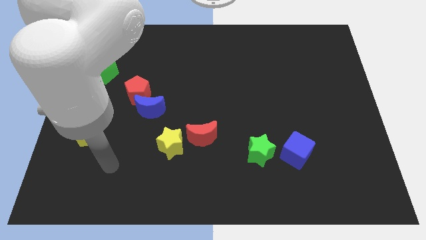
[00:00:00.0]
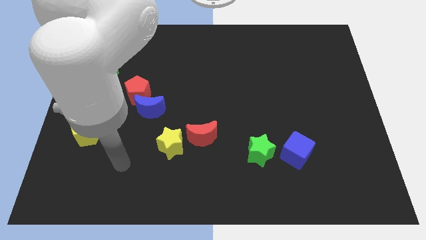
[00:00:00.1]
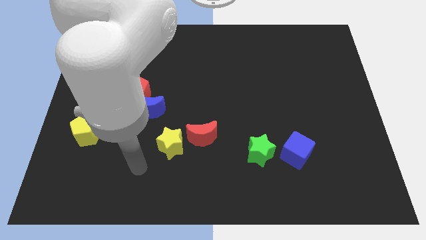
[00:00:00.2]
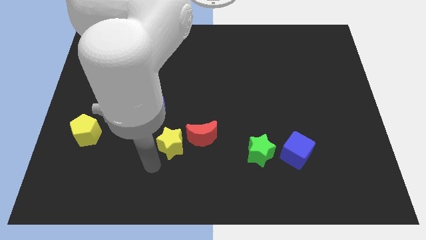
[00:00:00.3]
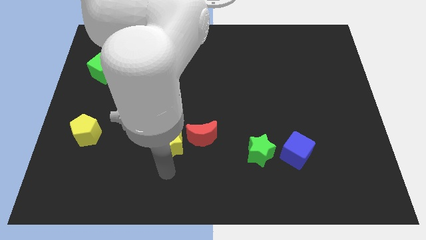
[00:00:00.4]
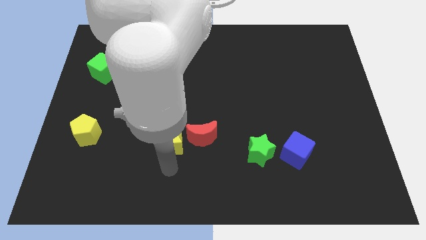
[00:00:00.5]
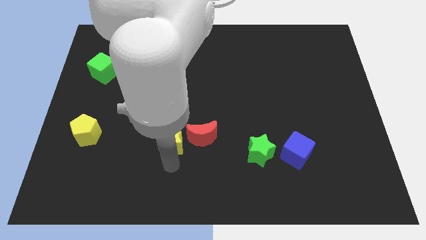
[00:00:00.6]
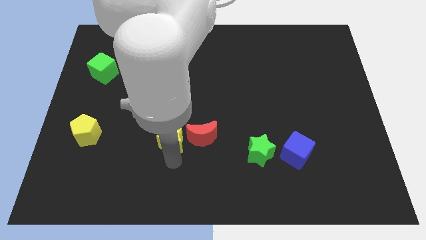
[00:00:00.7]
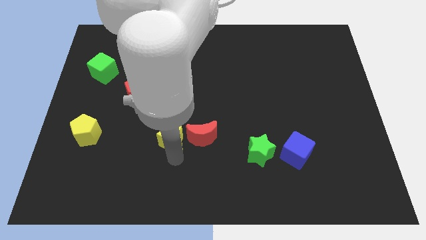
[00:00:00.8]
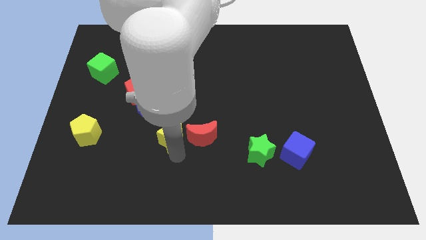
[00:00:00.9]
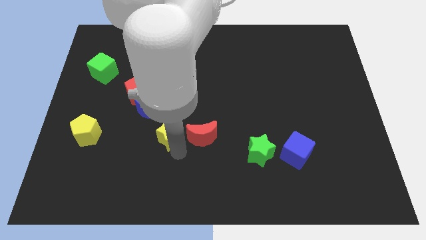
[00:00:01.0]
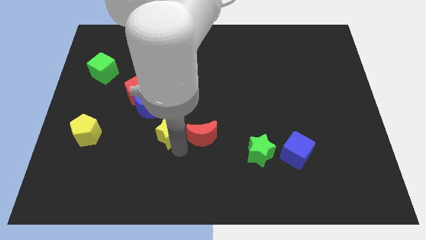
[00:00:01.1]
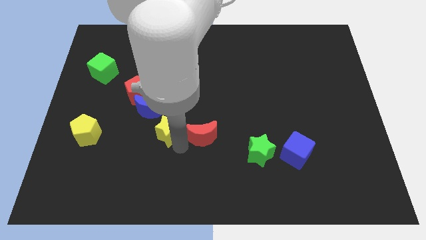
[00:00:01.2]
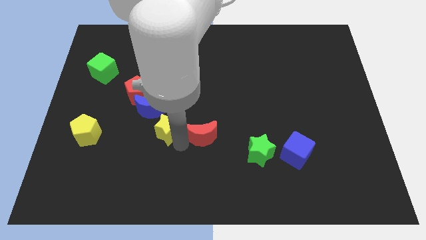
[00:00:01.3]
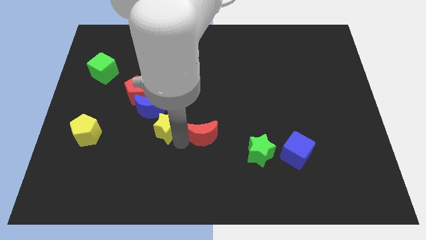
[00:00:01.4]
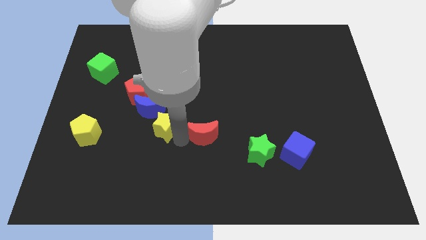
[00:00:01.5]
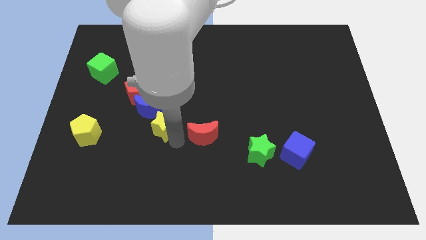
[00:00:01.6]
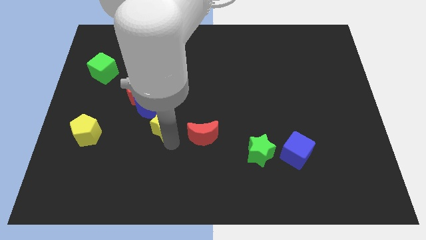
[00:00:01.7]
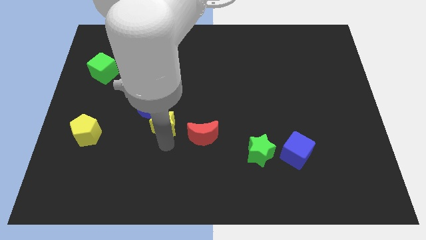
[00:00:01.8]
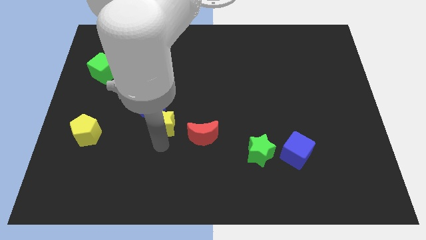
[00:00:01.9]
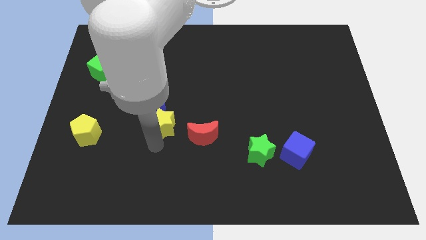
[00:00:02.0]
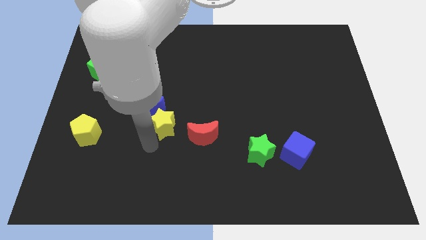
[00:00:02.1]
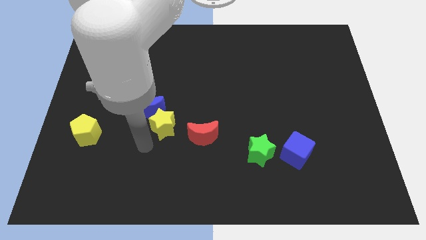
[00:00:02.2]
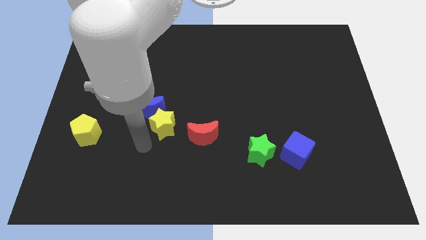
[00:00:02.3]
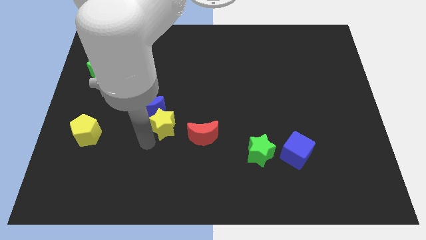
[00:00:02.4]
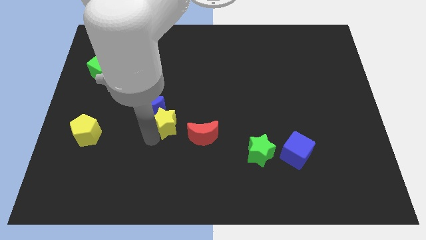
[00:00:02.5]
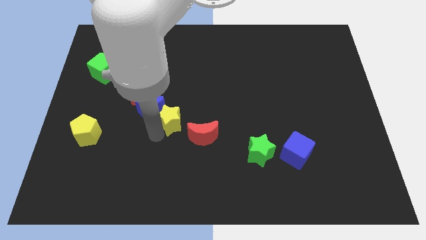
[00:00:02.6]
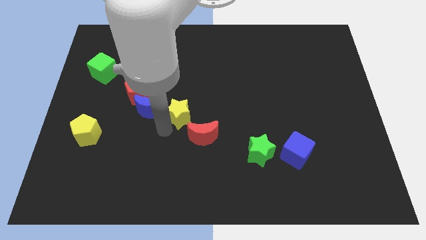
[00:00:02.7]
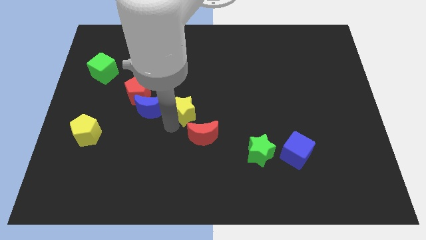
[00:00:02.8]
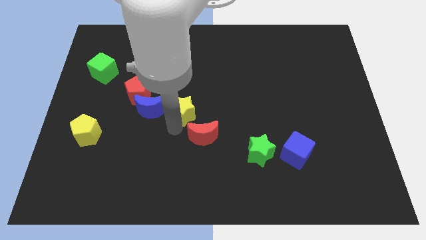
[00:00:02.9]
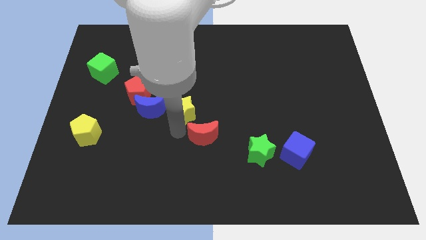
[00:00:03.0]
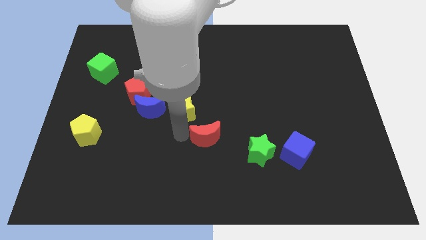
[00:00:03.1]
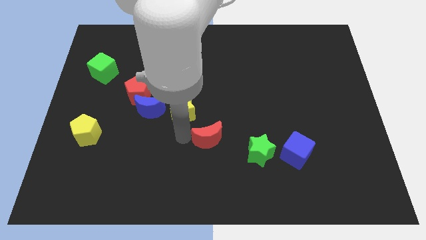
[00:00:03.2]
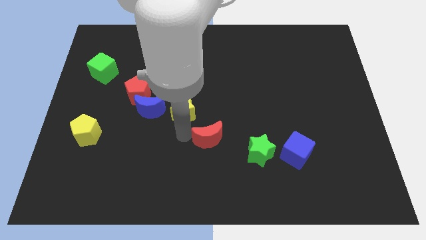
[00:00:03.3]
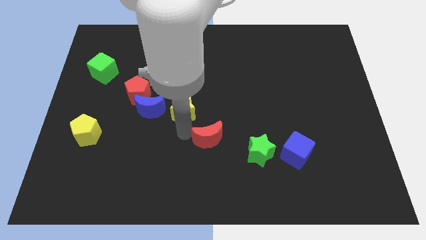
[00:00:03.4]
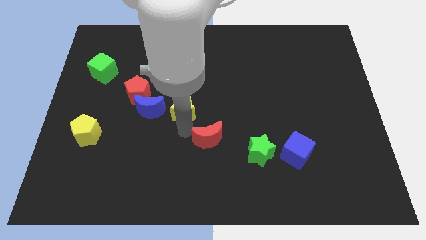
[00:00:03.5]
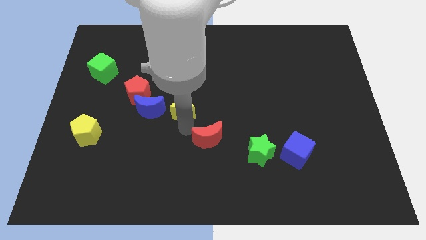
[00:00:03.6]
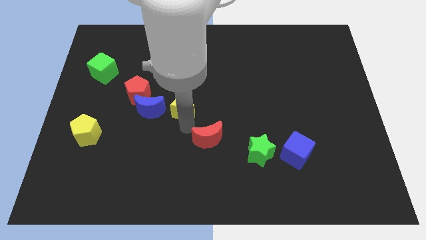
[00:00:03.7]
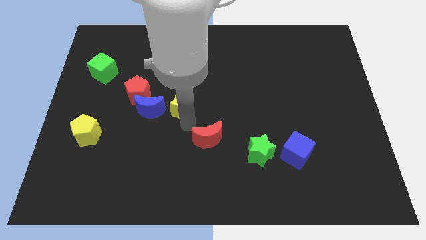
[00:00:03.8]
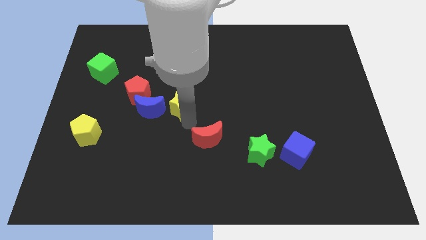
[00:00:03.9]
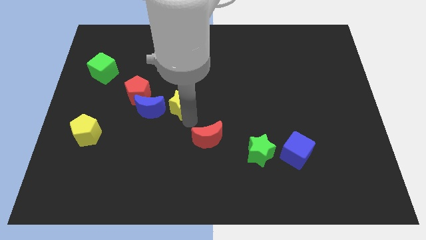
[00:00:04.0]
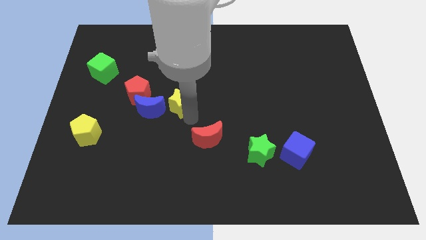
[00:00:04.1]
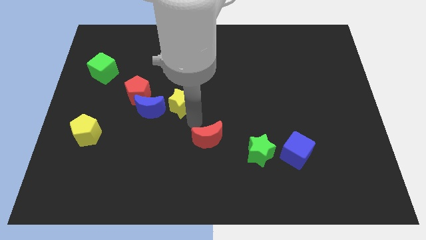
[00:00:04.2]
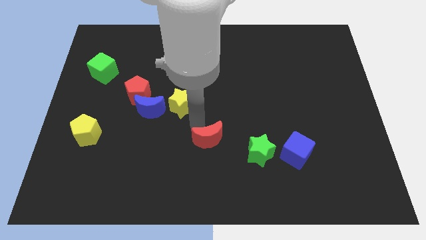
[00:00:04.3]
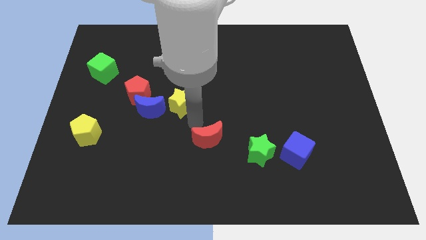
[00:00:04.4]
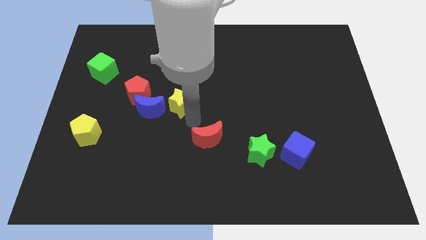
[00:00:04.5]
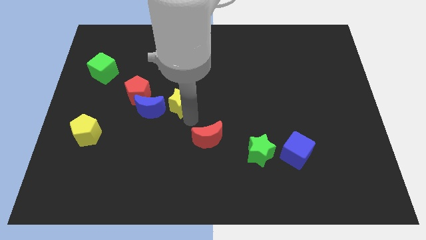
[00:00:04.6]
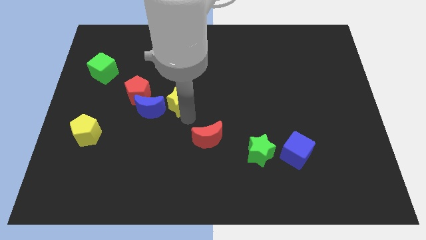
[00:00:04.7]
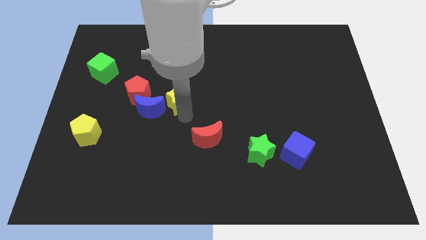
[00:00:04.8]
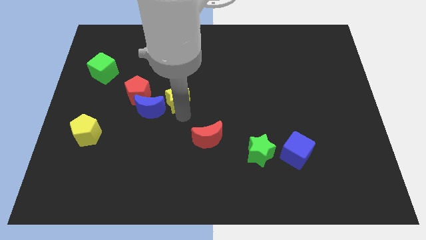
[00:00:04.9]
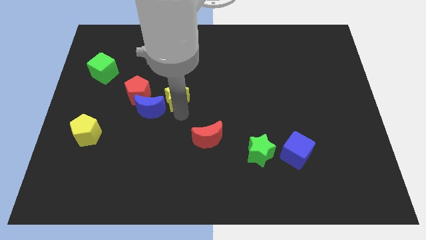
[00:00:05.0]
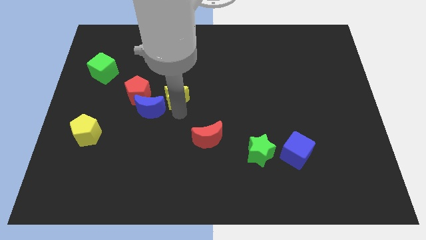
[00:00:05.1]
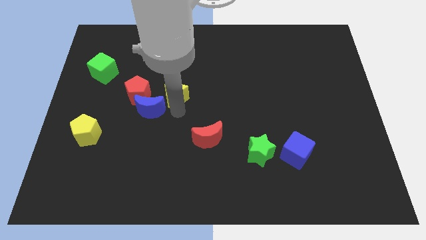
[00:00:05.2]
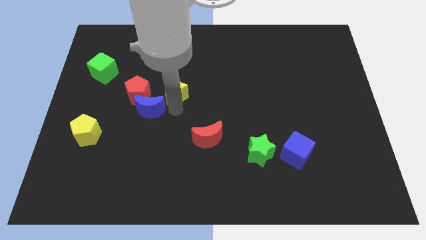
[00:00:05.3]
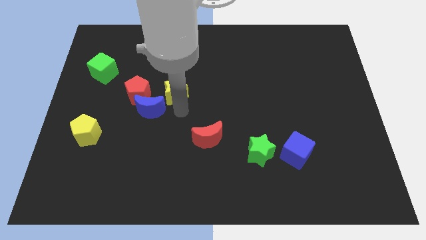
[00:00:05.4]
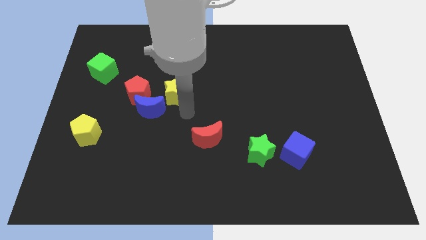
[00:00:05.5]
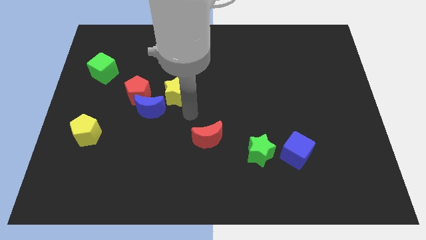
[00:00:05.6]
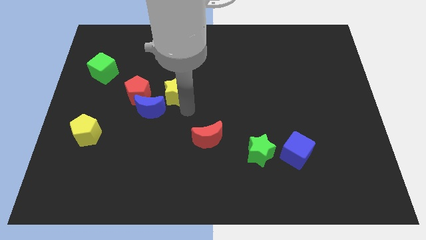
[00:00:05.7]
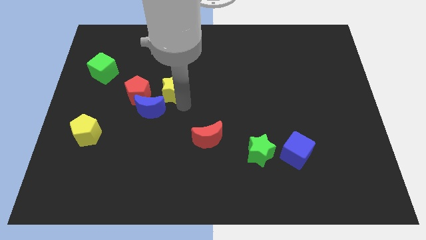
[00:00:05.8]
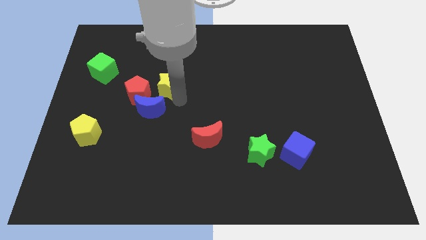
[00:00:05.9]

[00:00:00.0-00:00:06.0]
push the yellow star diagonally up and to the right of the red pentagon

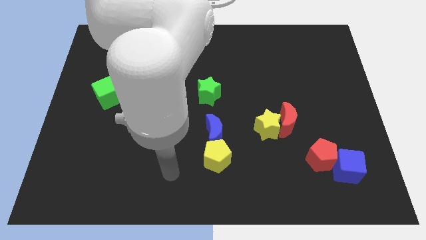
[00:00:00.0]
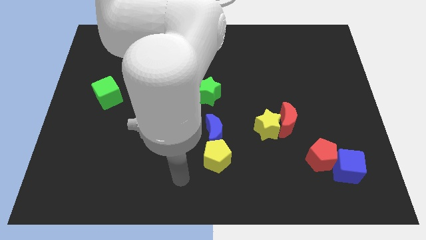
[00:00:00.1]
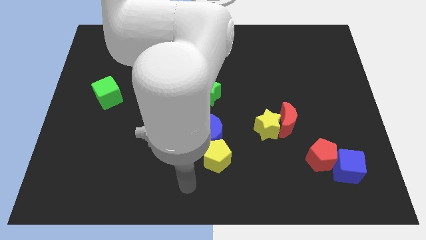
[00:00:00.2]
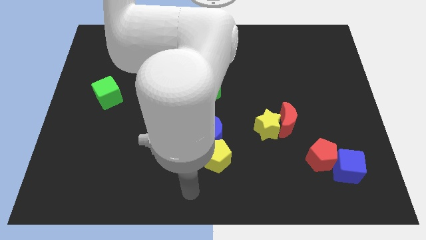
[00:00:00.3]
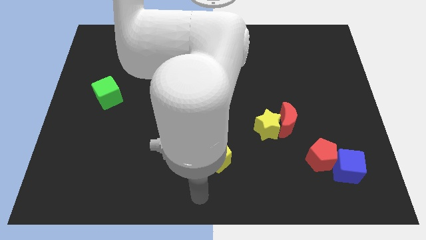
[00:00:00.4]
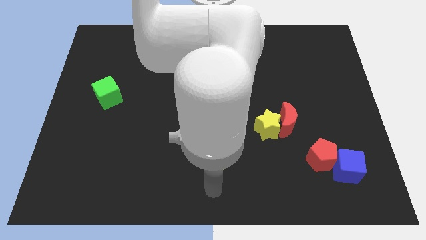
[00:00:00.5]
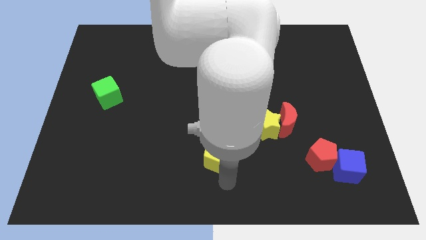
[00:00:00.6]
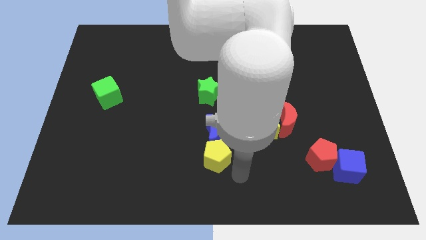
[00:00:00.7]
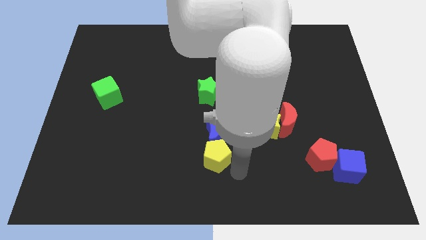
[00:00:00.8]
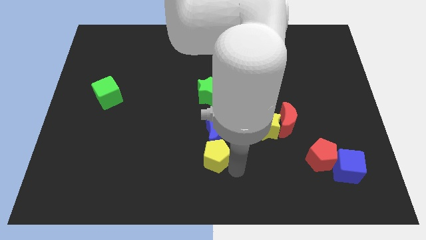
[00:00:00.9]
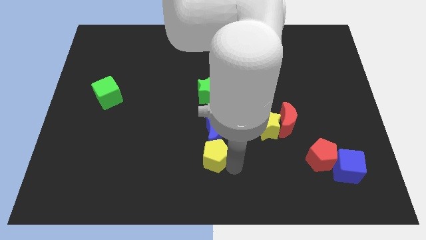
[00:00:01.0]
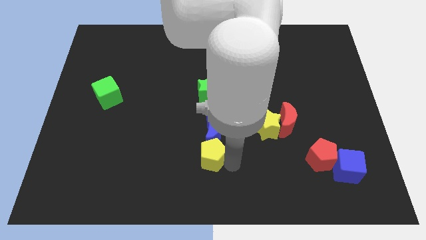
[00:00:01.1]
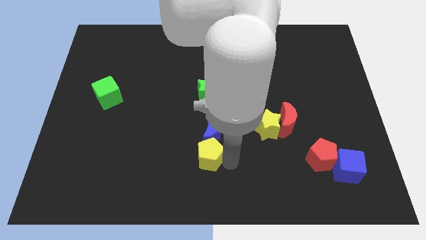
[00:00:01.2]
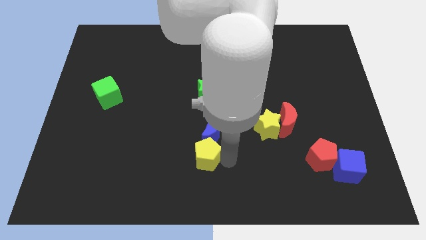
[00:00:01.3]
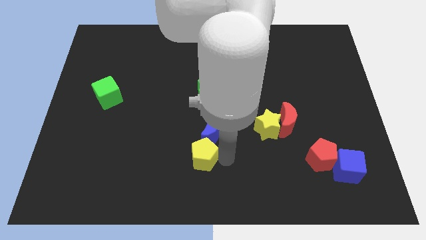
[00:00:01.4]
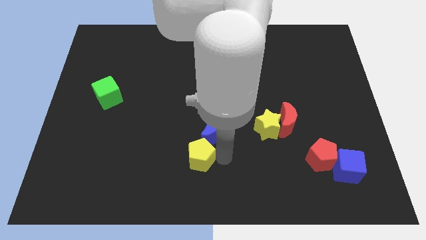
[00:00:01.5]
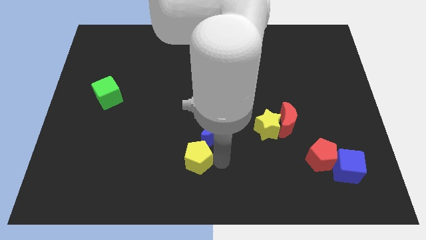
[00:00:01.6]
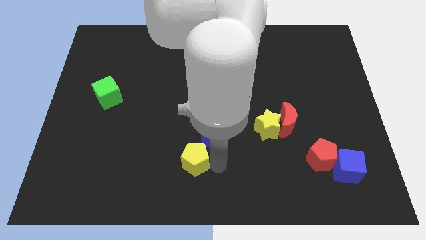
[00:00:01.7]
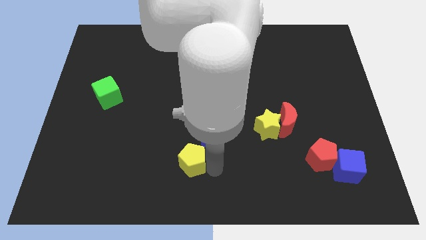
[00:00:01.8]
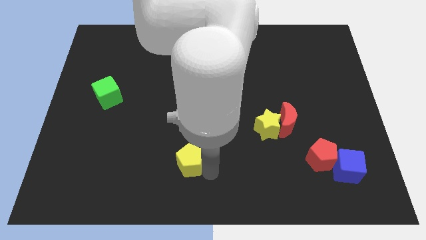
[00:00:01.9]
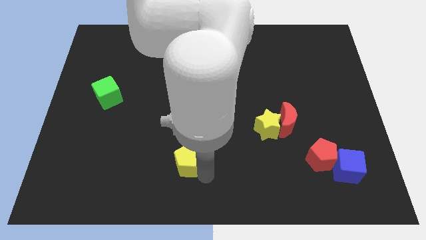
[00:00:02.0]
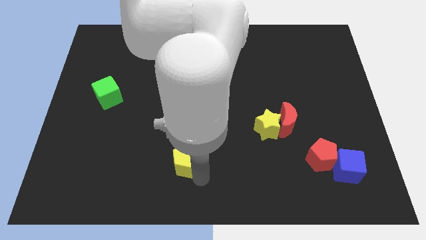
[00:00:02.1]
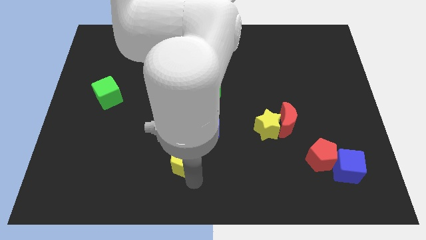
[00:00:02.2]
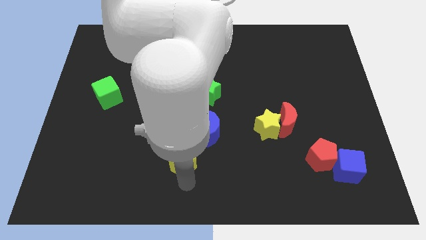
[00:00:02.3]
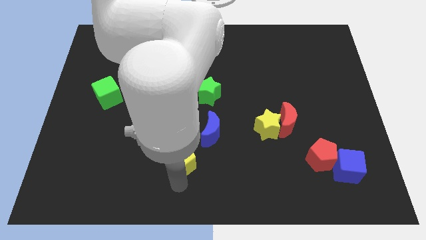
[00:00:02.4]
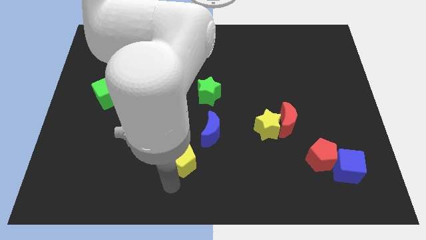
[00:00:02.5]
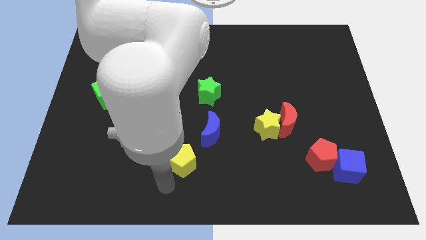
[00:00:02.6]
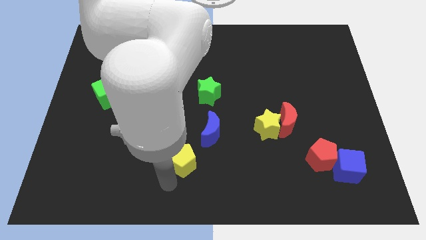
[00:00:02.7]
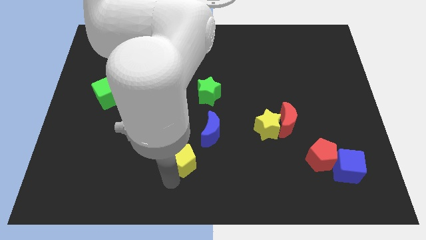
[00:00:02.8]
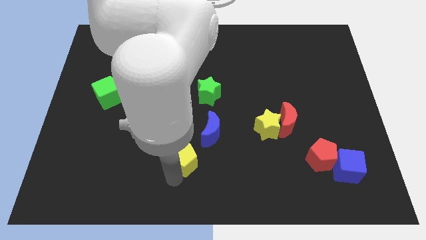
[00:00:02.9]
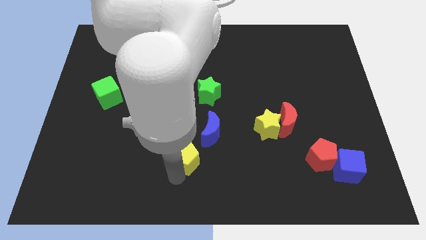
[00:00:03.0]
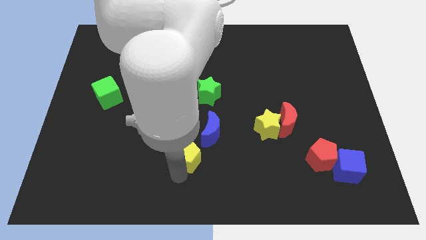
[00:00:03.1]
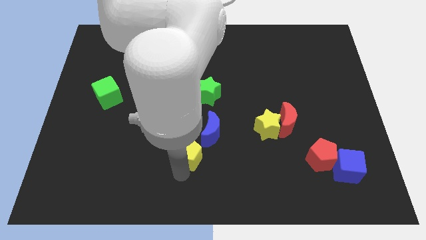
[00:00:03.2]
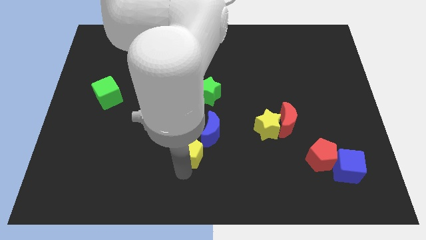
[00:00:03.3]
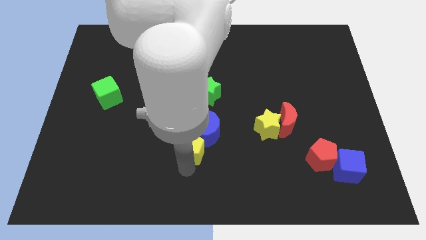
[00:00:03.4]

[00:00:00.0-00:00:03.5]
push the yellow pentagon to the left of the blue moon
